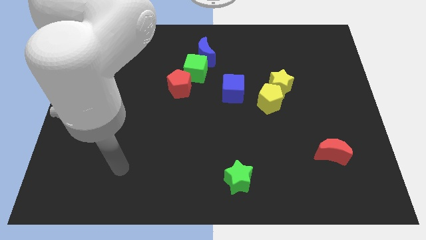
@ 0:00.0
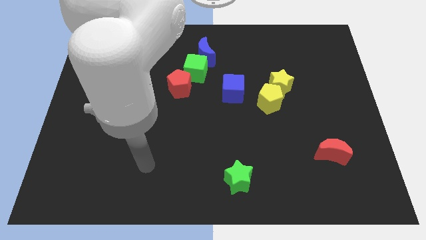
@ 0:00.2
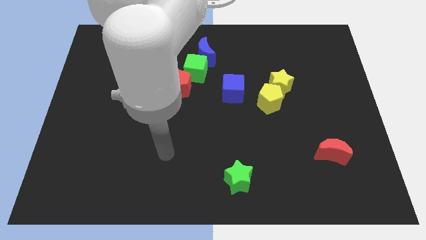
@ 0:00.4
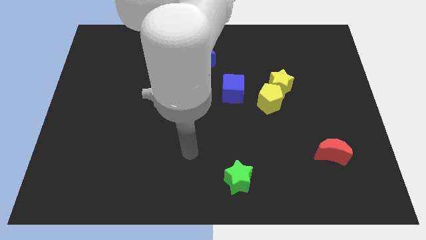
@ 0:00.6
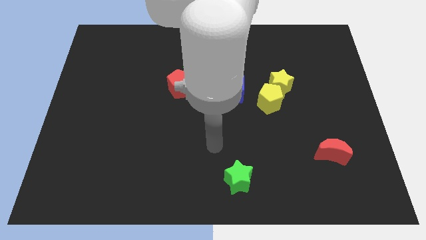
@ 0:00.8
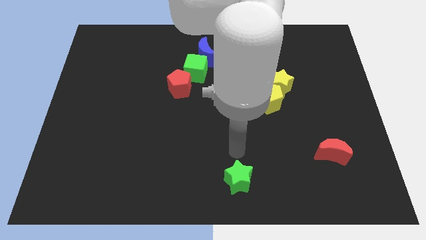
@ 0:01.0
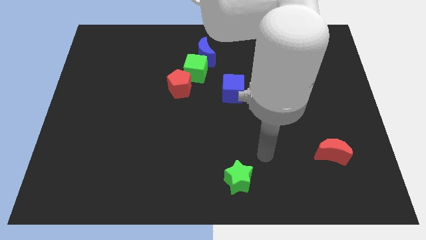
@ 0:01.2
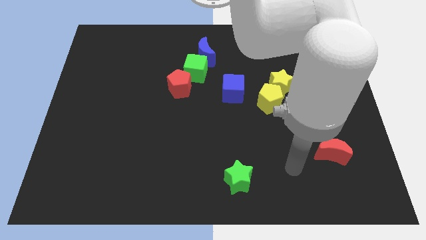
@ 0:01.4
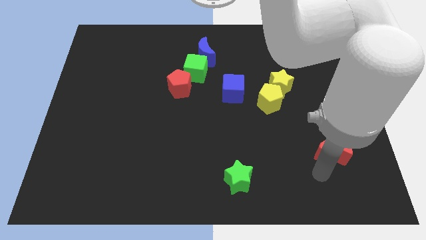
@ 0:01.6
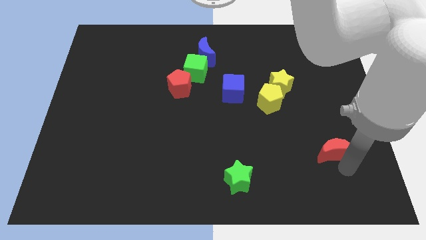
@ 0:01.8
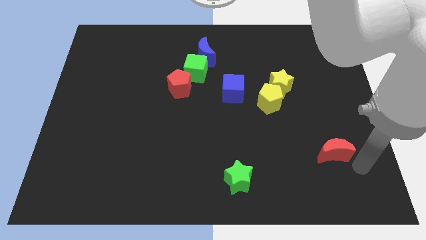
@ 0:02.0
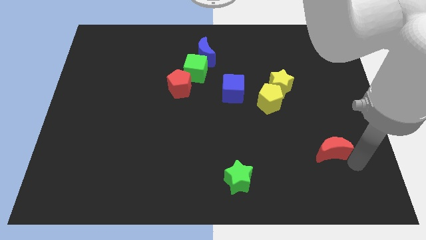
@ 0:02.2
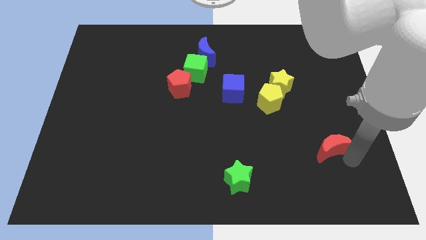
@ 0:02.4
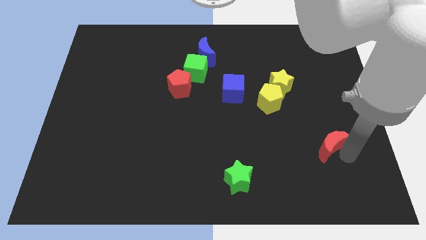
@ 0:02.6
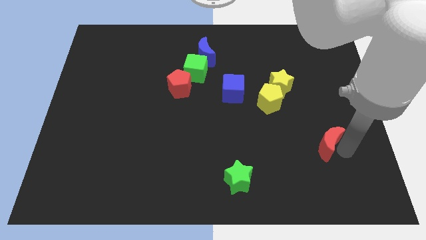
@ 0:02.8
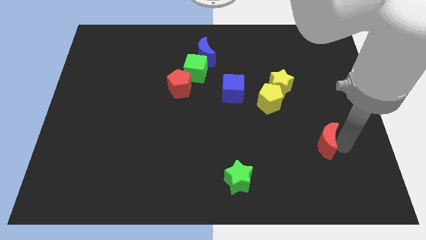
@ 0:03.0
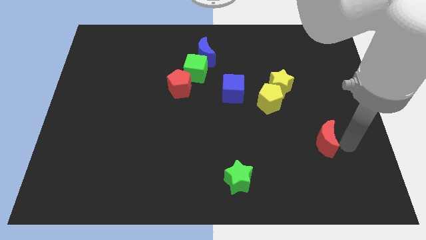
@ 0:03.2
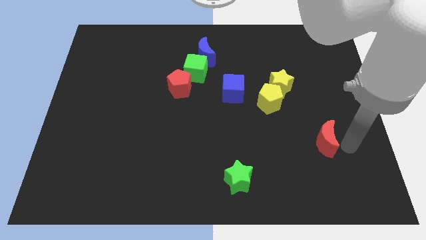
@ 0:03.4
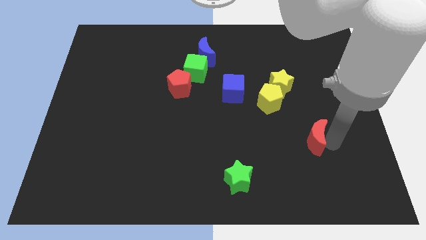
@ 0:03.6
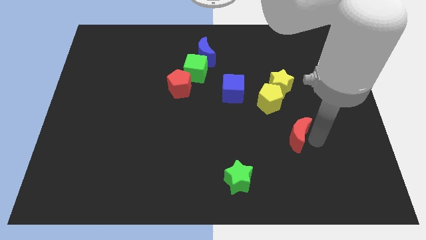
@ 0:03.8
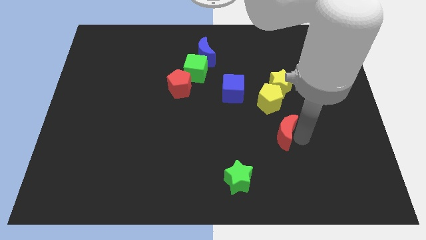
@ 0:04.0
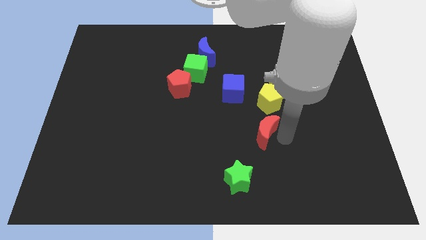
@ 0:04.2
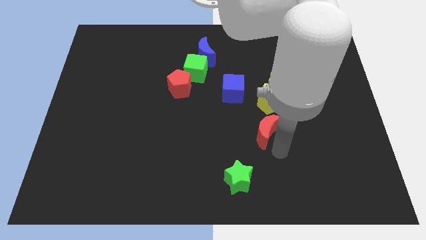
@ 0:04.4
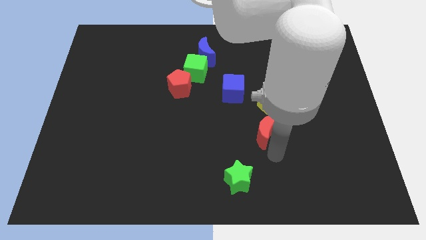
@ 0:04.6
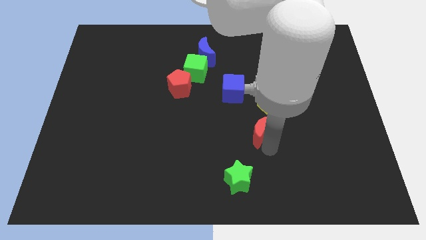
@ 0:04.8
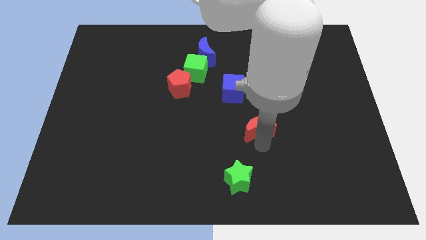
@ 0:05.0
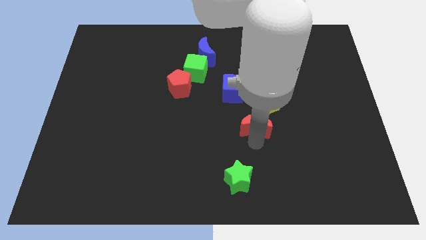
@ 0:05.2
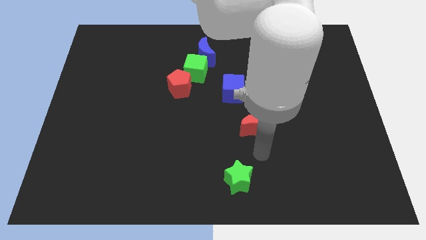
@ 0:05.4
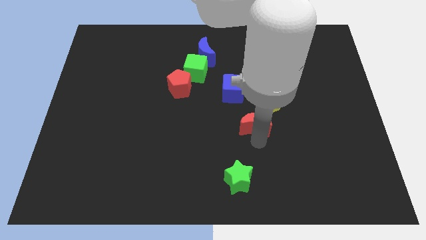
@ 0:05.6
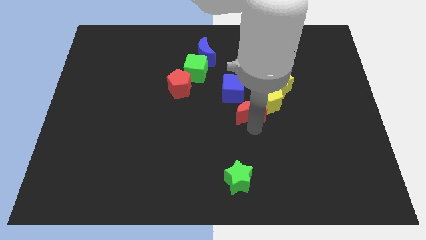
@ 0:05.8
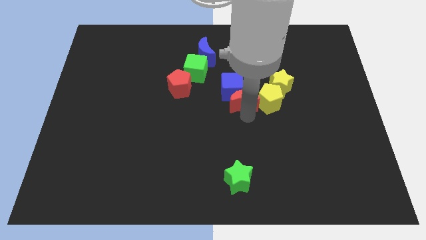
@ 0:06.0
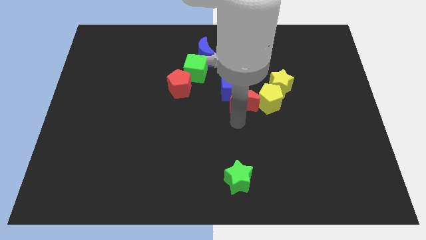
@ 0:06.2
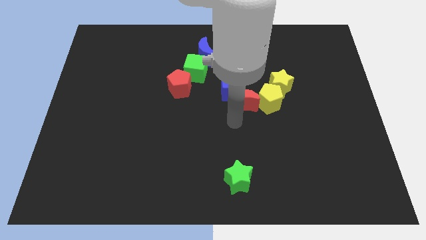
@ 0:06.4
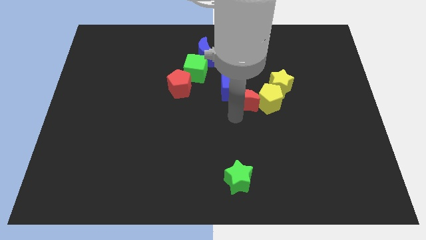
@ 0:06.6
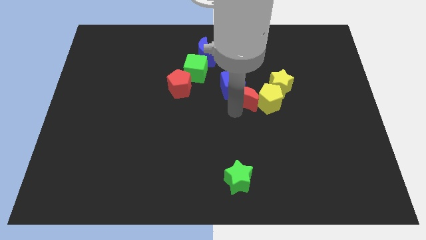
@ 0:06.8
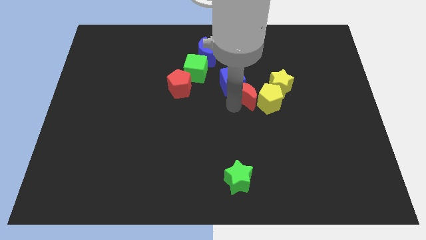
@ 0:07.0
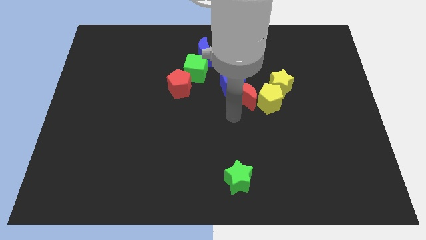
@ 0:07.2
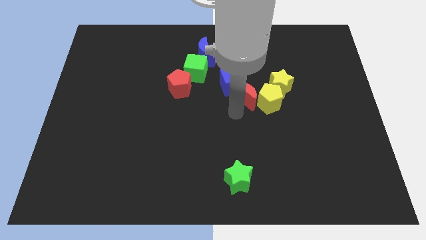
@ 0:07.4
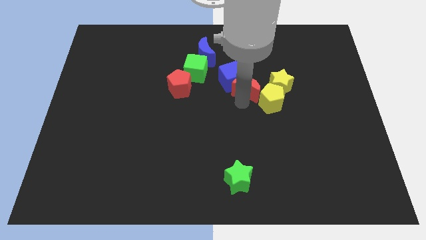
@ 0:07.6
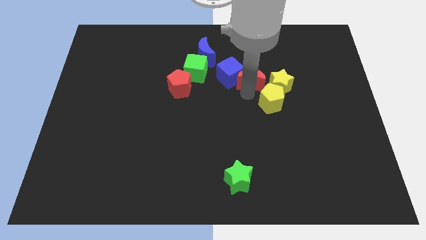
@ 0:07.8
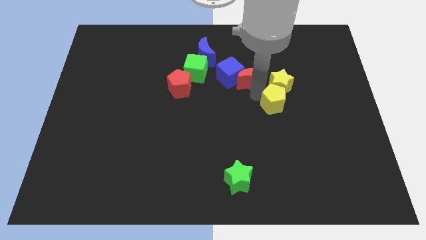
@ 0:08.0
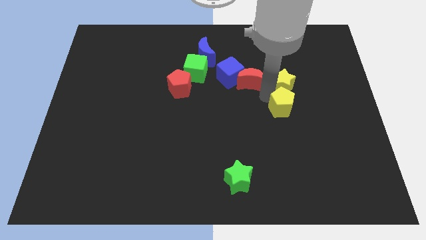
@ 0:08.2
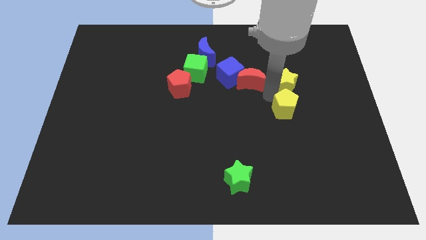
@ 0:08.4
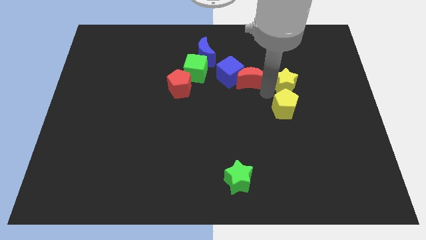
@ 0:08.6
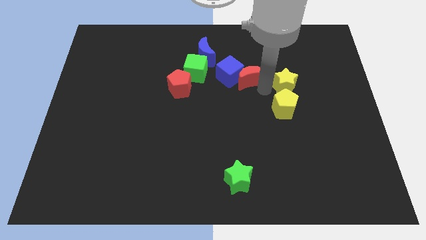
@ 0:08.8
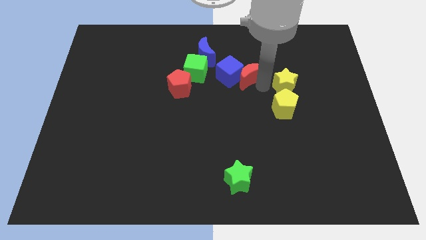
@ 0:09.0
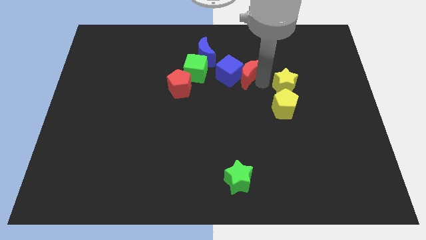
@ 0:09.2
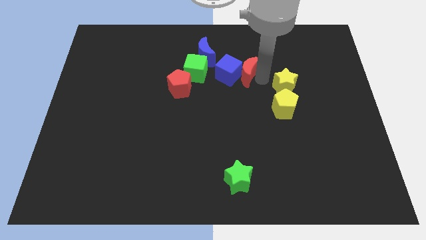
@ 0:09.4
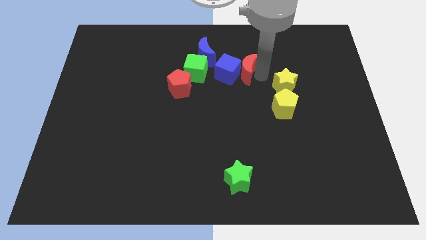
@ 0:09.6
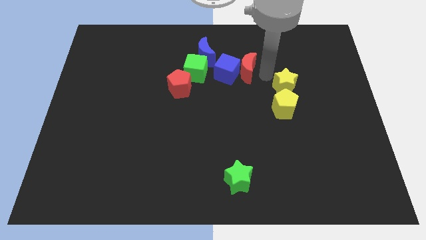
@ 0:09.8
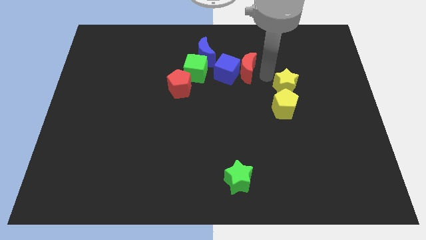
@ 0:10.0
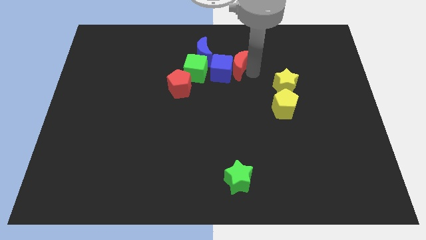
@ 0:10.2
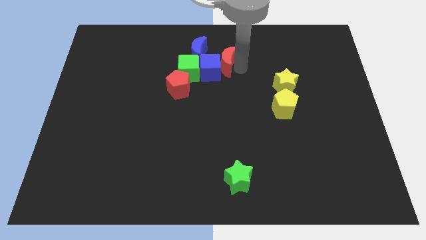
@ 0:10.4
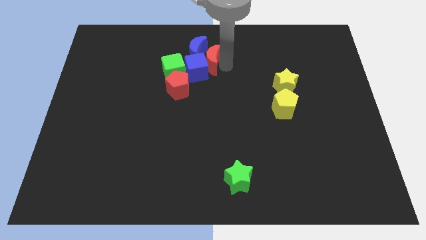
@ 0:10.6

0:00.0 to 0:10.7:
put the red moon next to the blue moon

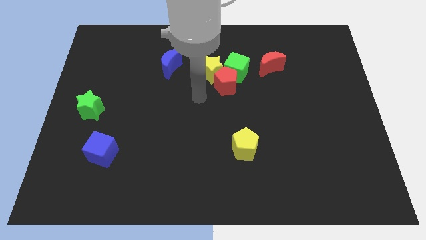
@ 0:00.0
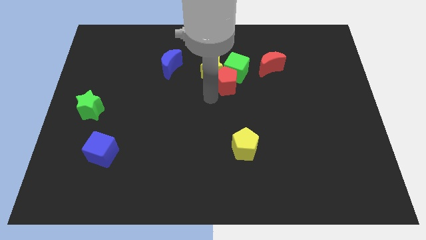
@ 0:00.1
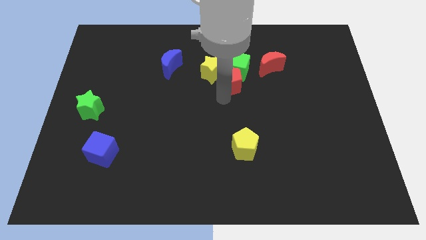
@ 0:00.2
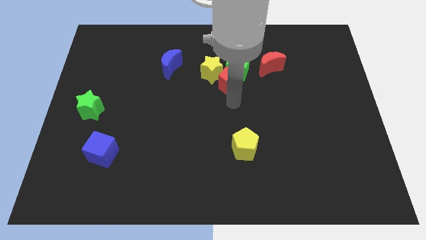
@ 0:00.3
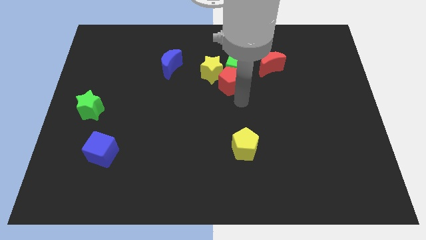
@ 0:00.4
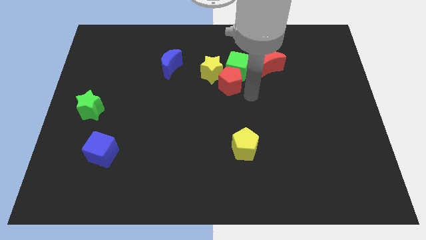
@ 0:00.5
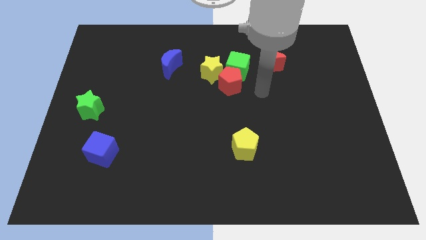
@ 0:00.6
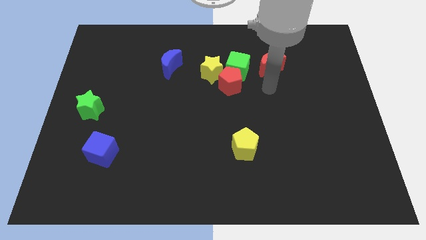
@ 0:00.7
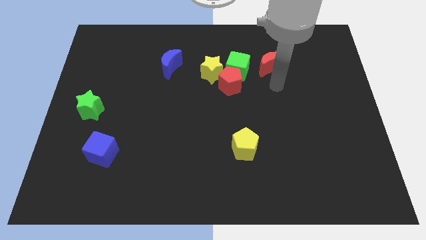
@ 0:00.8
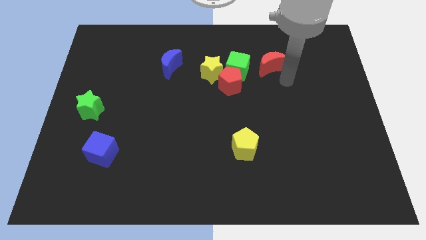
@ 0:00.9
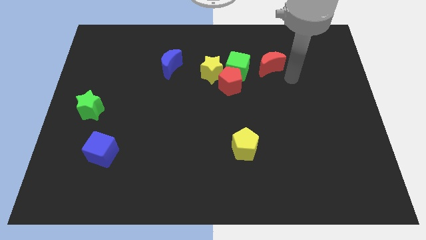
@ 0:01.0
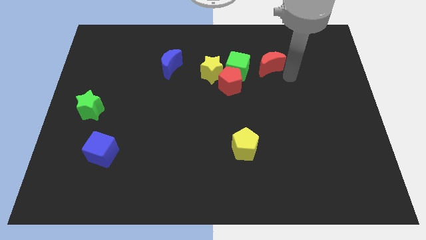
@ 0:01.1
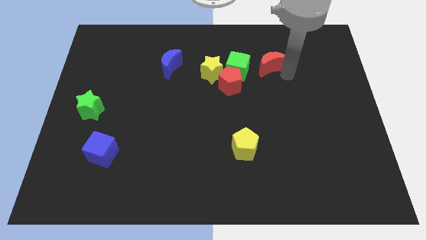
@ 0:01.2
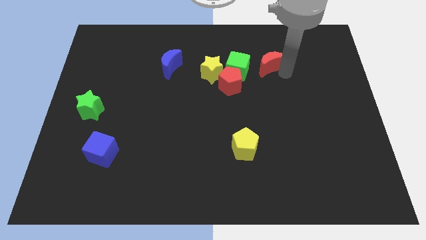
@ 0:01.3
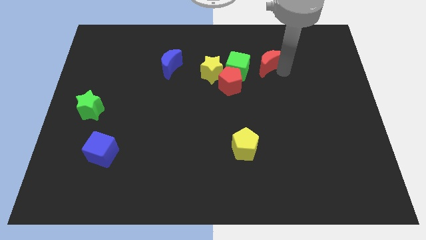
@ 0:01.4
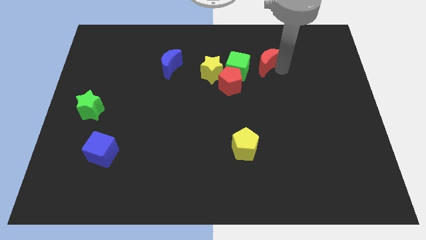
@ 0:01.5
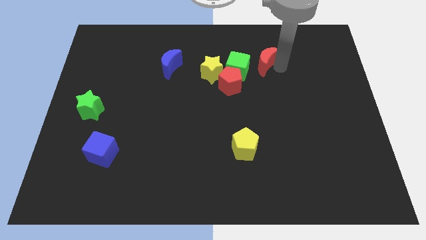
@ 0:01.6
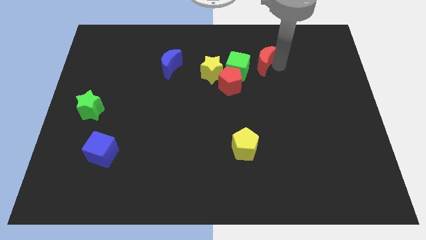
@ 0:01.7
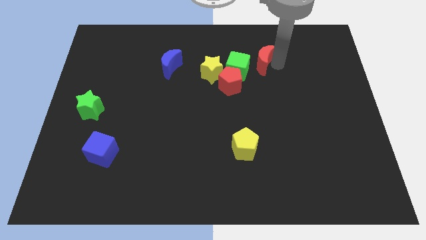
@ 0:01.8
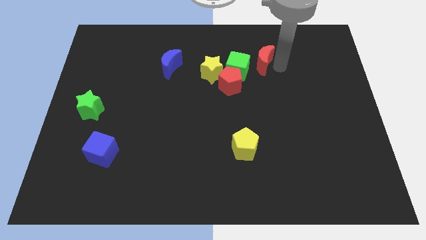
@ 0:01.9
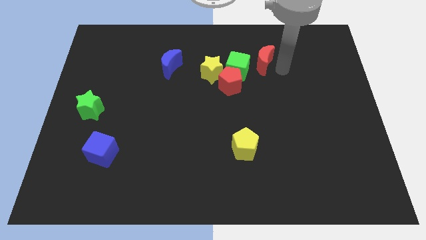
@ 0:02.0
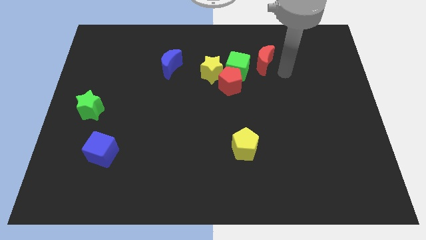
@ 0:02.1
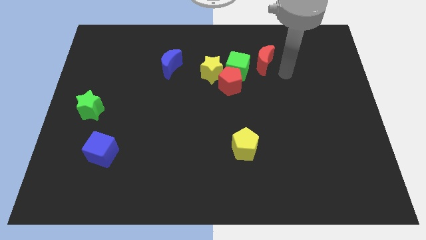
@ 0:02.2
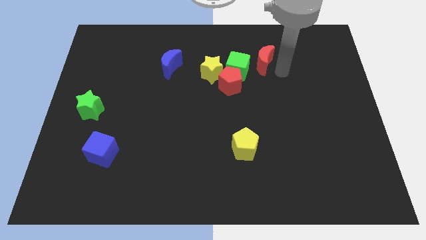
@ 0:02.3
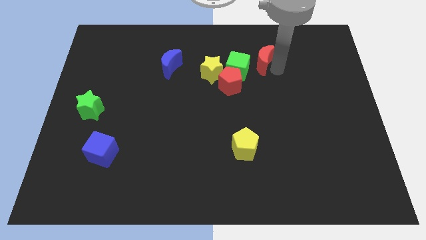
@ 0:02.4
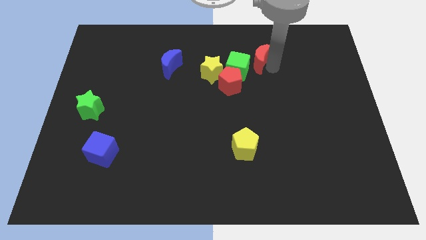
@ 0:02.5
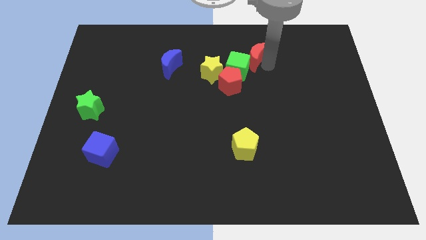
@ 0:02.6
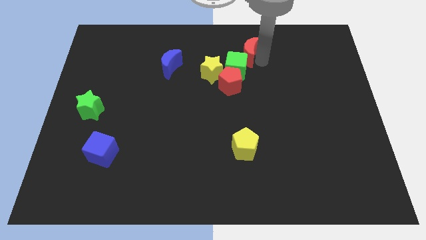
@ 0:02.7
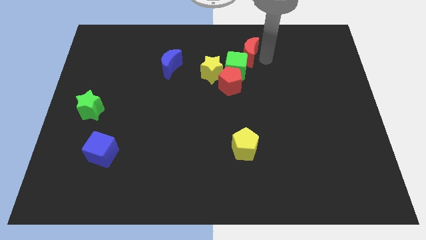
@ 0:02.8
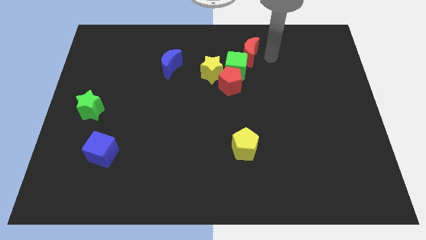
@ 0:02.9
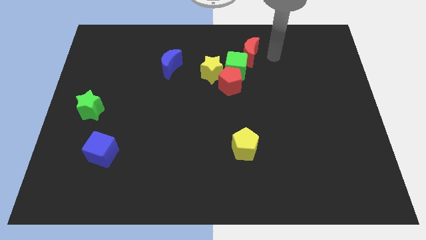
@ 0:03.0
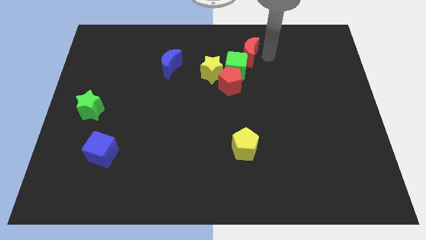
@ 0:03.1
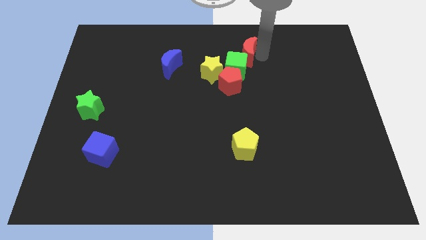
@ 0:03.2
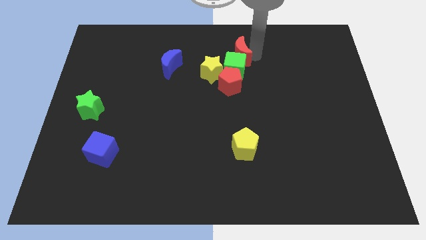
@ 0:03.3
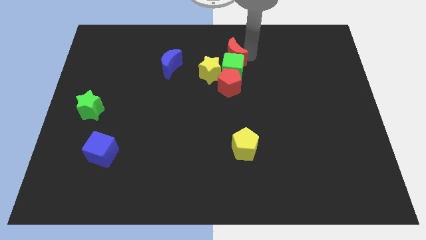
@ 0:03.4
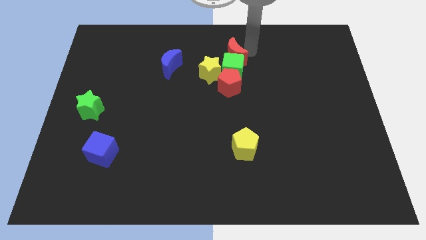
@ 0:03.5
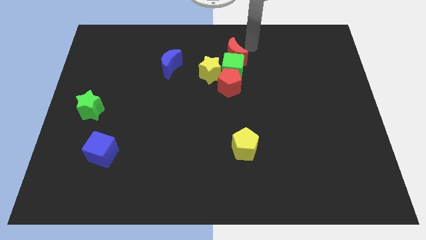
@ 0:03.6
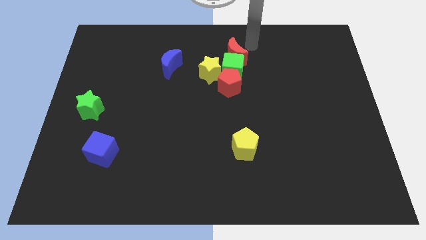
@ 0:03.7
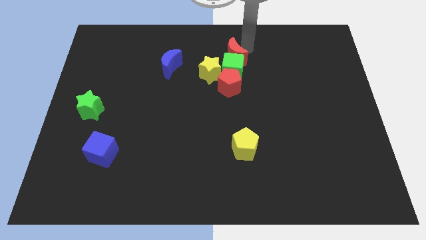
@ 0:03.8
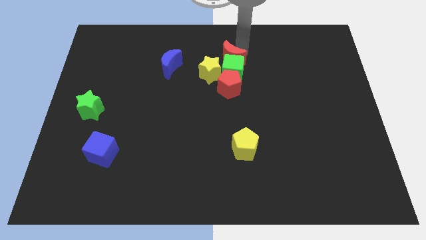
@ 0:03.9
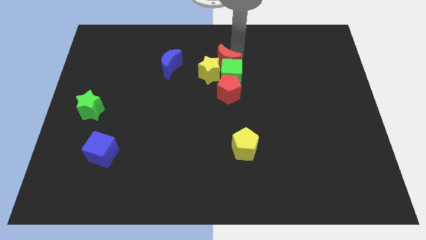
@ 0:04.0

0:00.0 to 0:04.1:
push the red moon close to the yellow star
